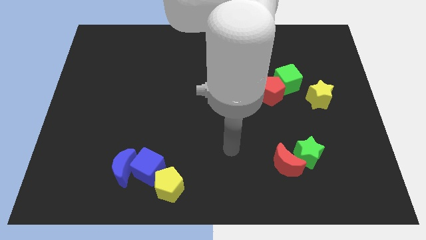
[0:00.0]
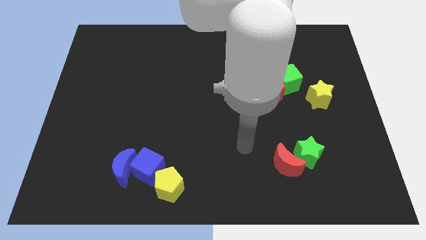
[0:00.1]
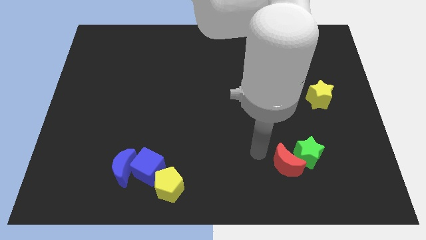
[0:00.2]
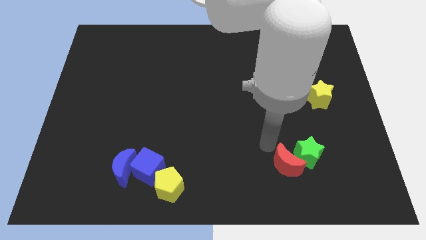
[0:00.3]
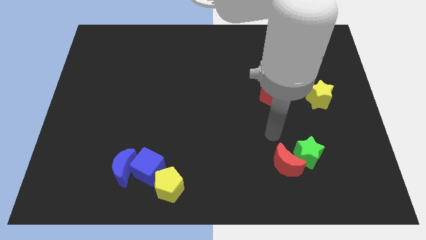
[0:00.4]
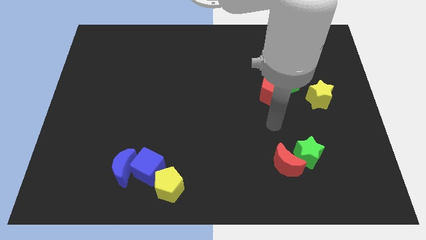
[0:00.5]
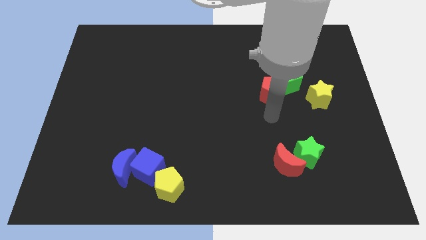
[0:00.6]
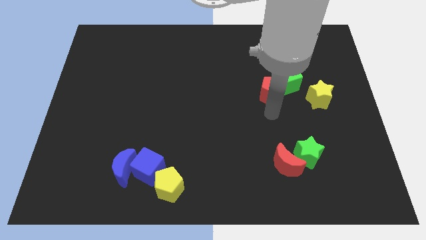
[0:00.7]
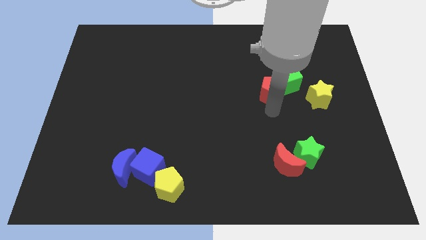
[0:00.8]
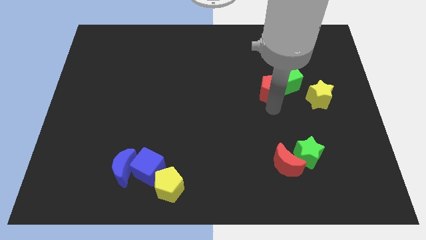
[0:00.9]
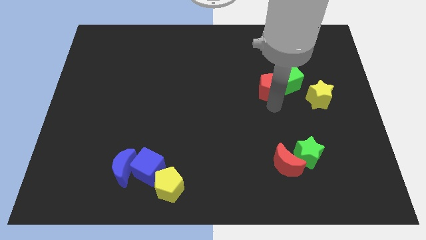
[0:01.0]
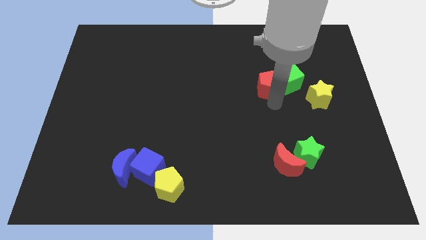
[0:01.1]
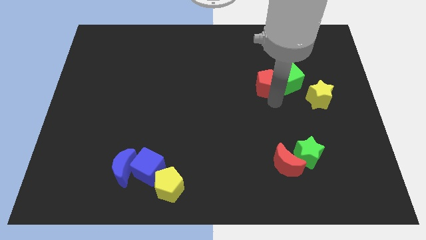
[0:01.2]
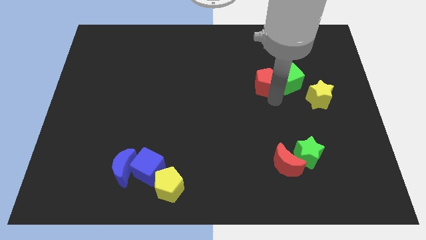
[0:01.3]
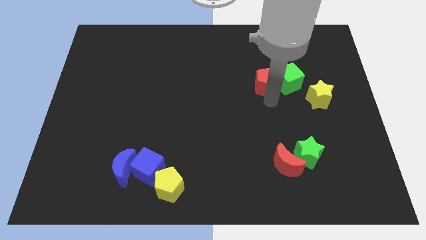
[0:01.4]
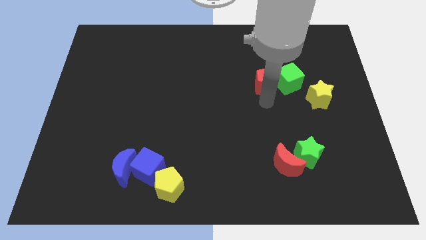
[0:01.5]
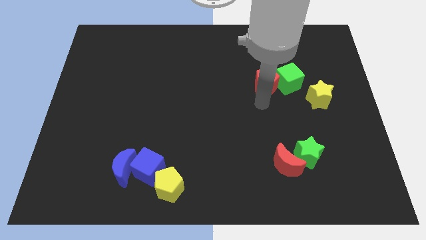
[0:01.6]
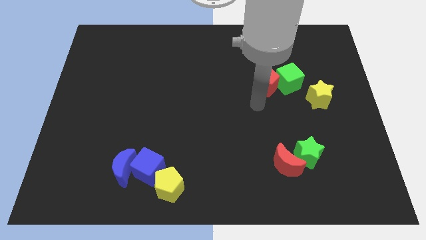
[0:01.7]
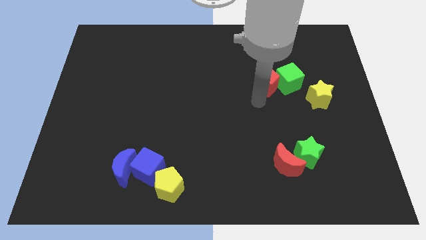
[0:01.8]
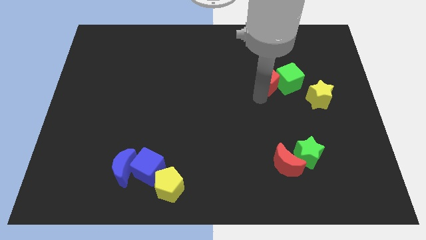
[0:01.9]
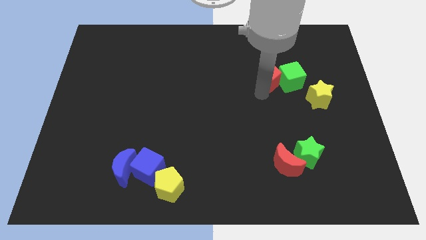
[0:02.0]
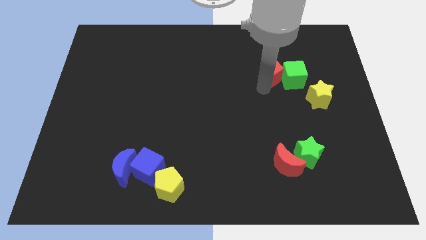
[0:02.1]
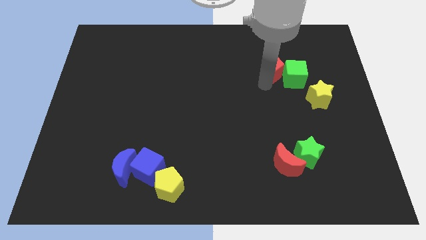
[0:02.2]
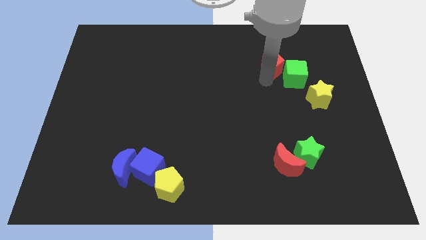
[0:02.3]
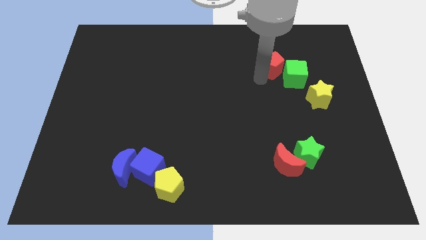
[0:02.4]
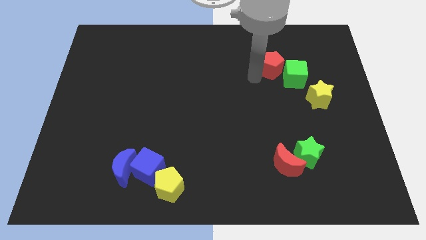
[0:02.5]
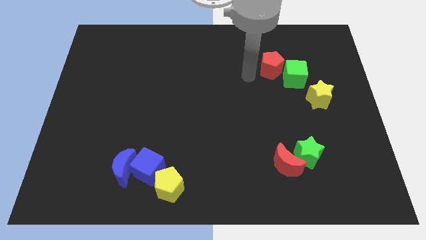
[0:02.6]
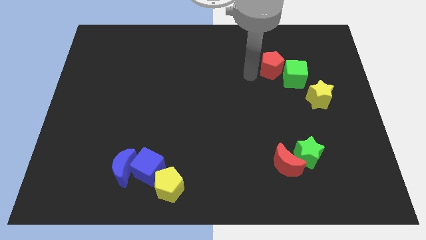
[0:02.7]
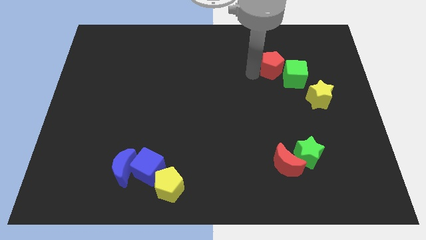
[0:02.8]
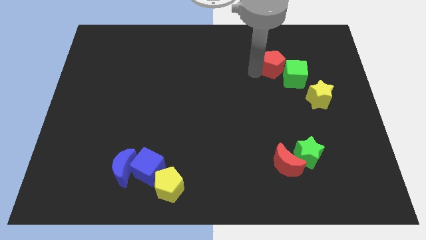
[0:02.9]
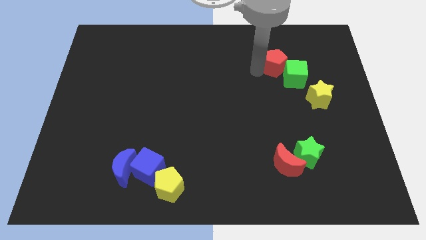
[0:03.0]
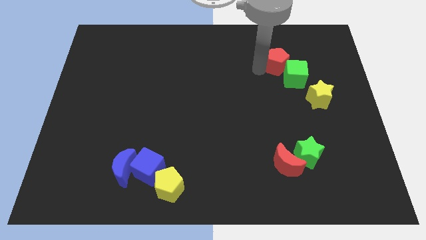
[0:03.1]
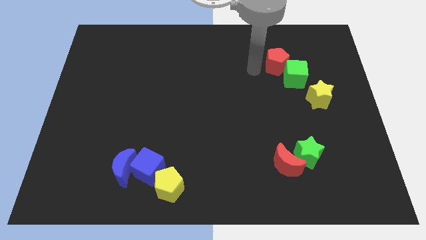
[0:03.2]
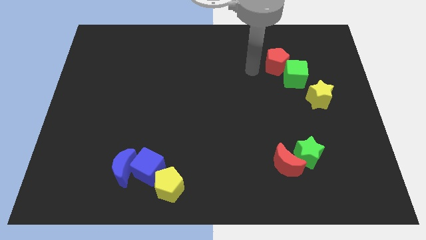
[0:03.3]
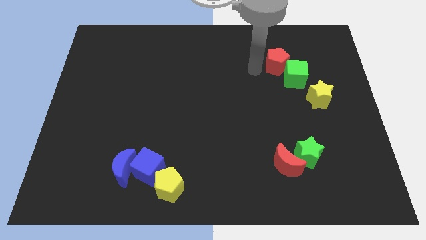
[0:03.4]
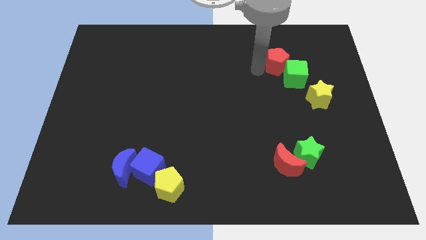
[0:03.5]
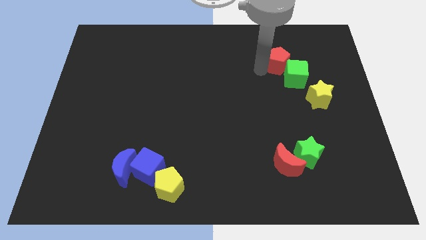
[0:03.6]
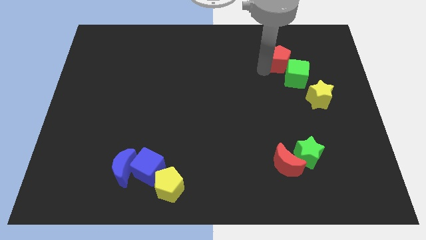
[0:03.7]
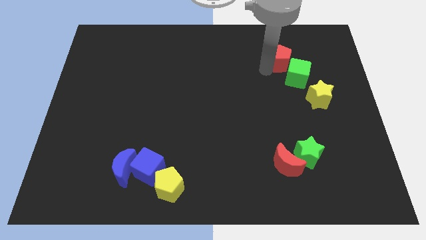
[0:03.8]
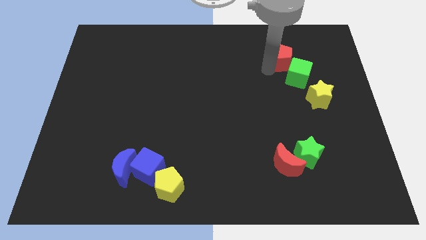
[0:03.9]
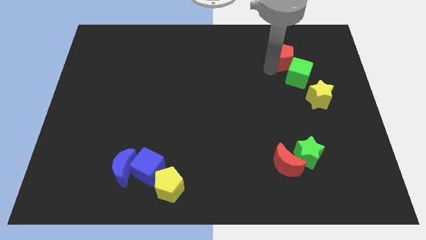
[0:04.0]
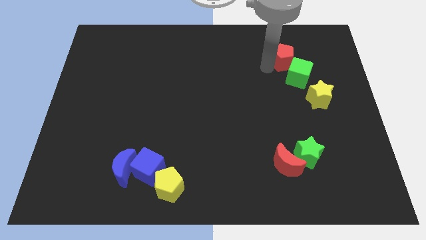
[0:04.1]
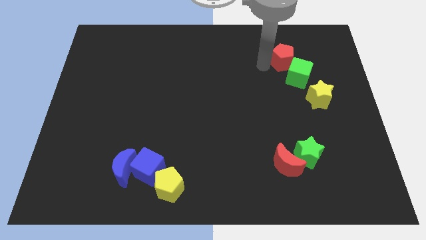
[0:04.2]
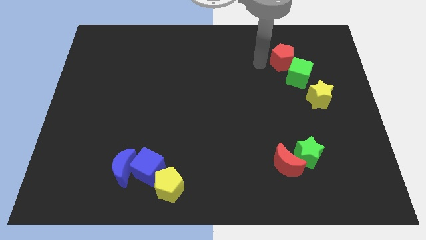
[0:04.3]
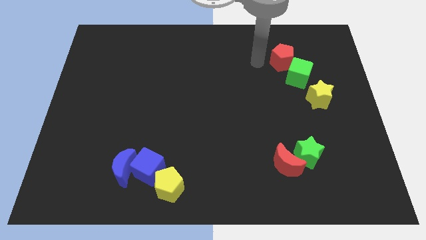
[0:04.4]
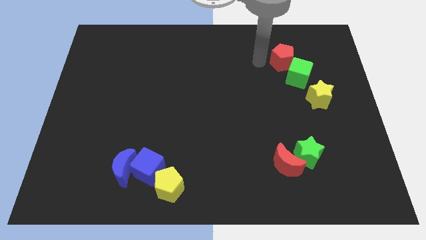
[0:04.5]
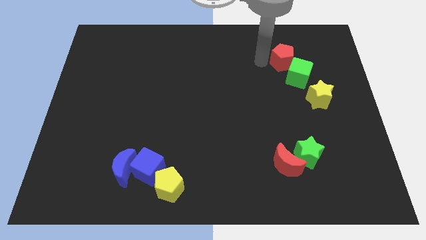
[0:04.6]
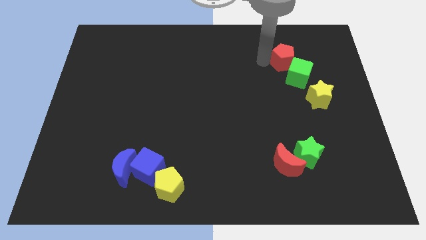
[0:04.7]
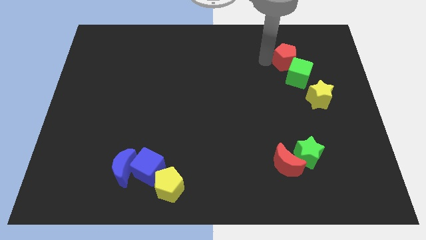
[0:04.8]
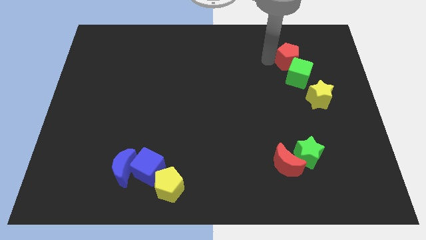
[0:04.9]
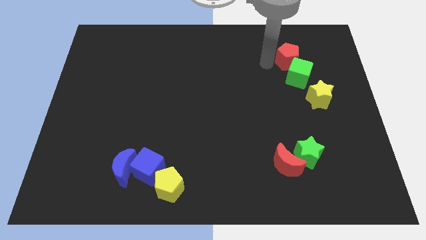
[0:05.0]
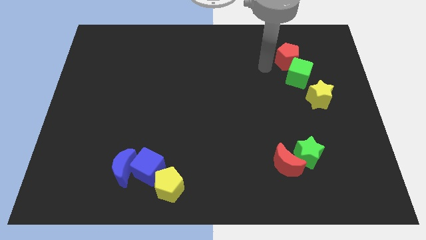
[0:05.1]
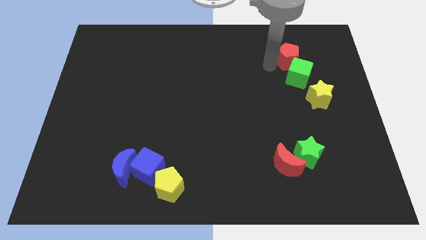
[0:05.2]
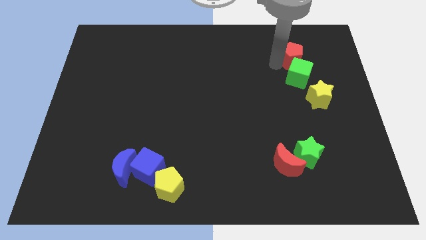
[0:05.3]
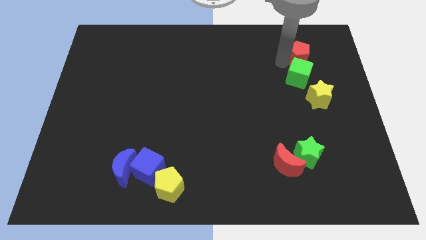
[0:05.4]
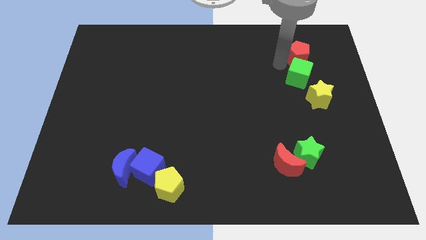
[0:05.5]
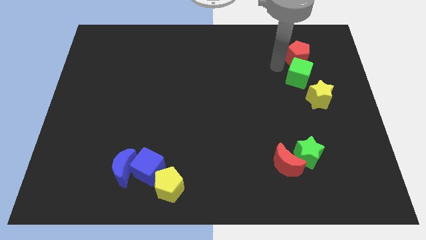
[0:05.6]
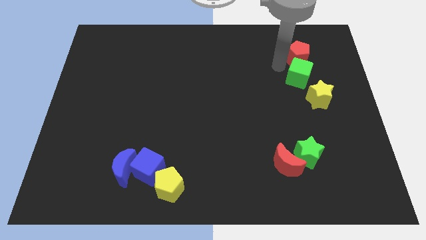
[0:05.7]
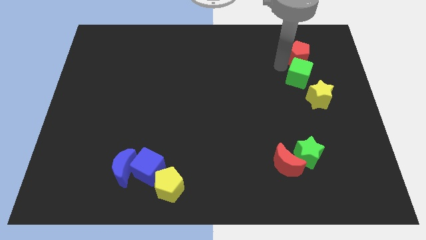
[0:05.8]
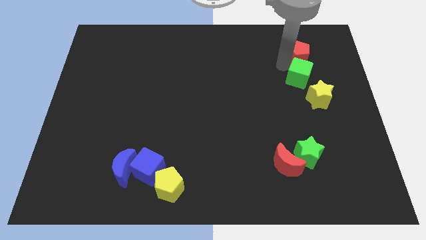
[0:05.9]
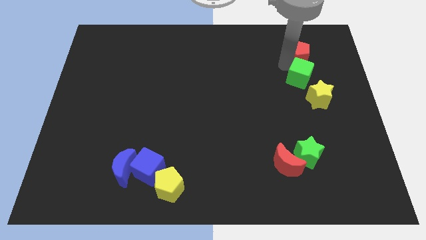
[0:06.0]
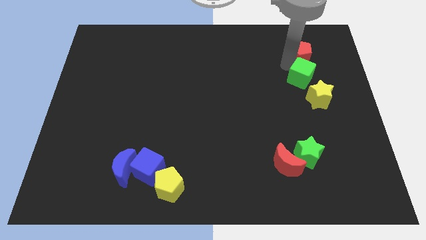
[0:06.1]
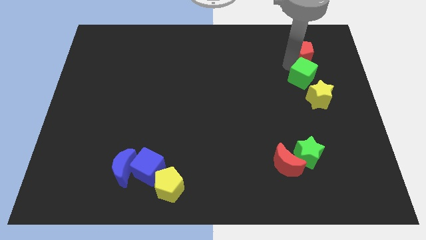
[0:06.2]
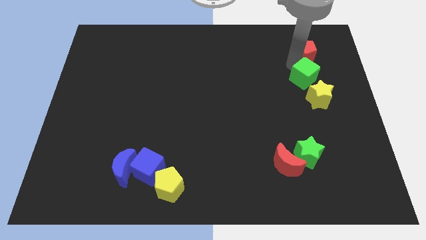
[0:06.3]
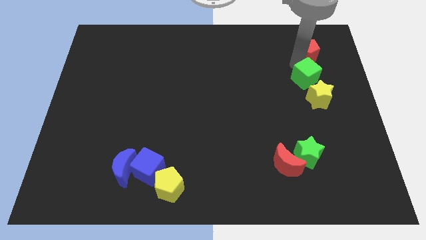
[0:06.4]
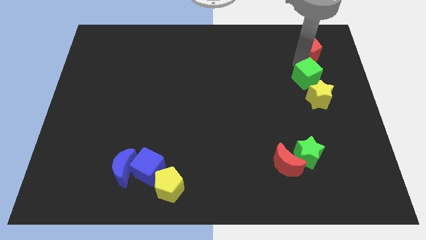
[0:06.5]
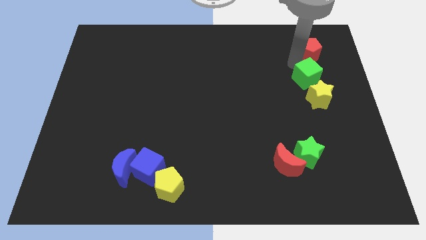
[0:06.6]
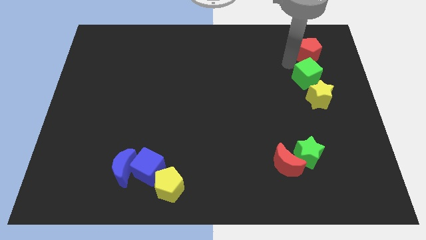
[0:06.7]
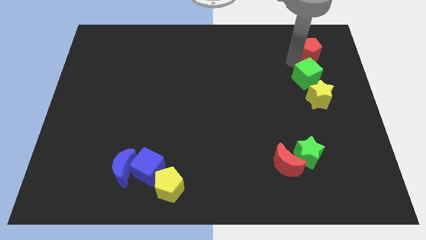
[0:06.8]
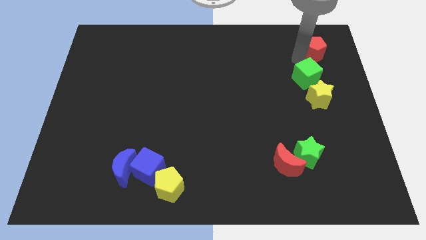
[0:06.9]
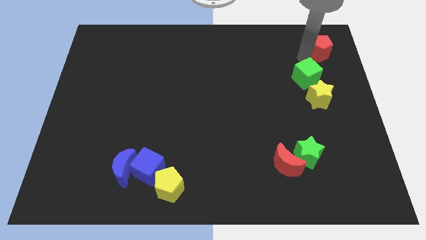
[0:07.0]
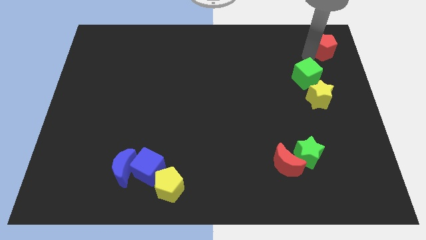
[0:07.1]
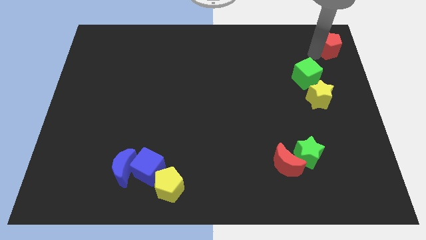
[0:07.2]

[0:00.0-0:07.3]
move the red pentagon to the top right
